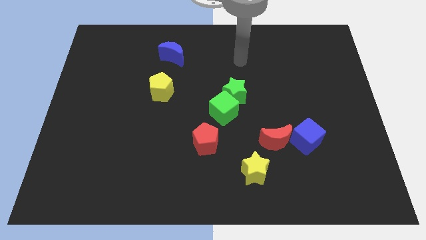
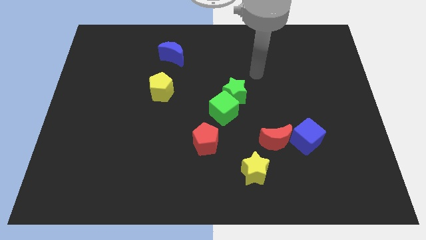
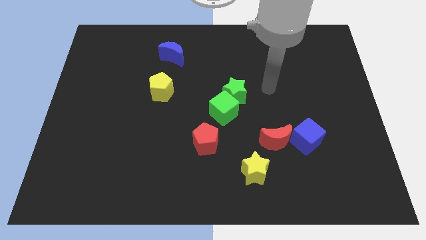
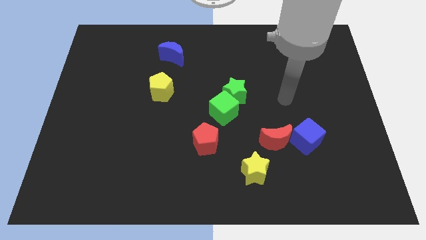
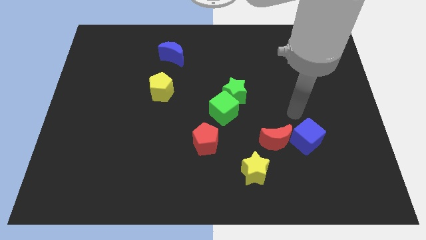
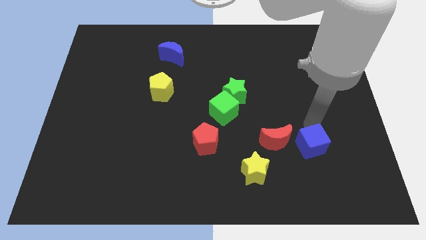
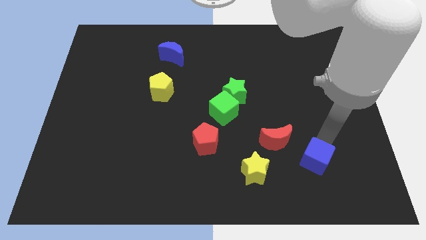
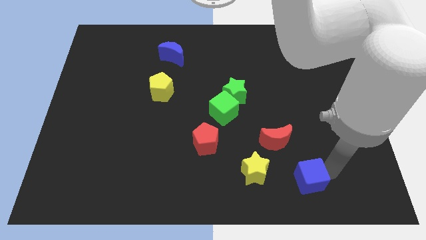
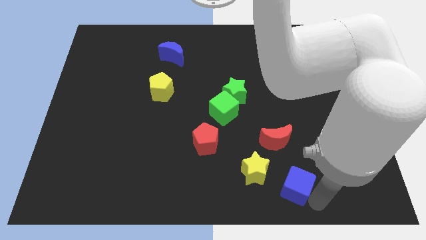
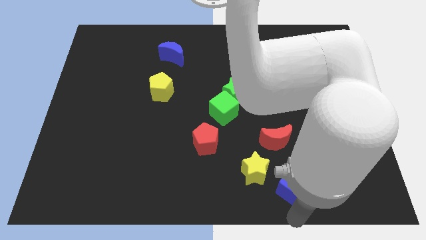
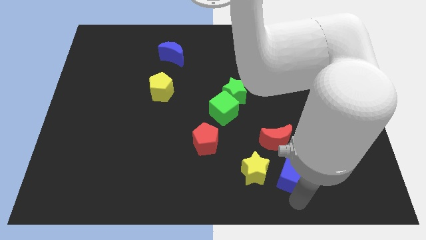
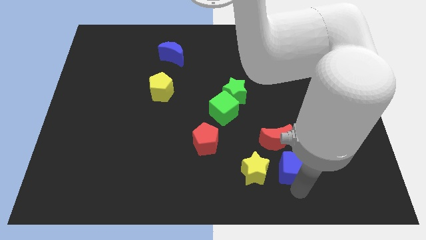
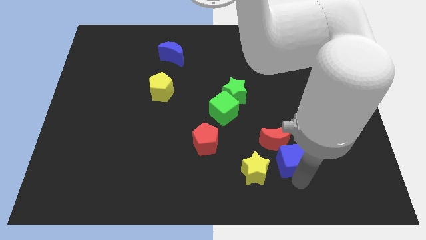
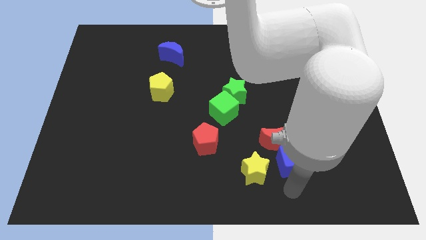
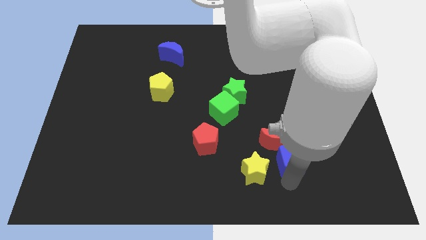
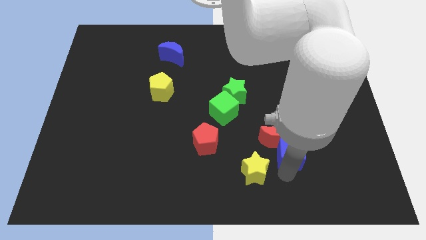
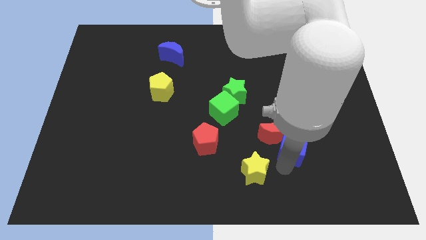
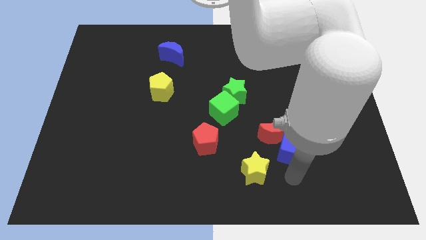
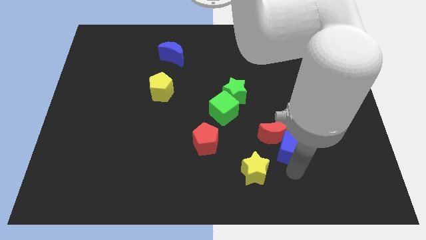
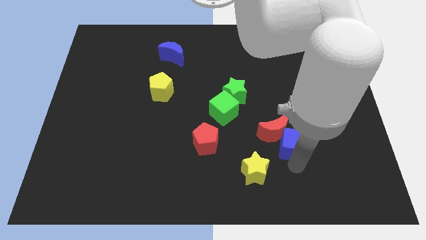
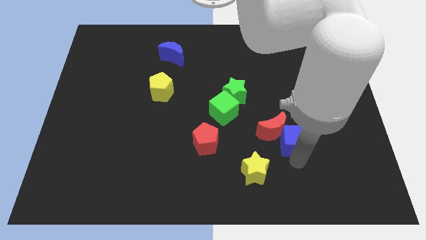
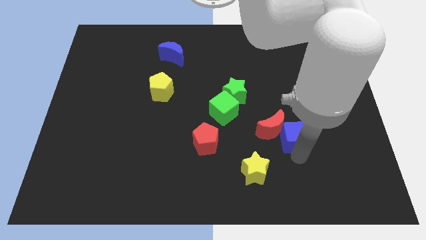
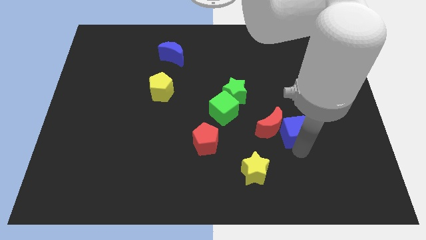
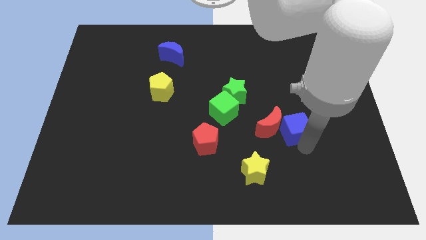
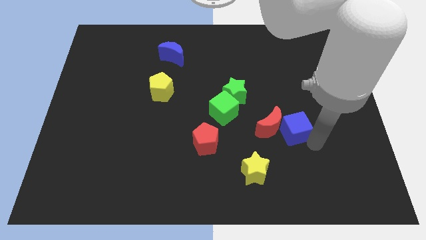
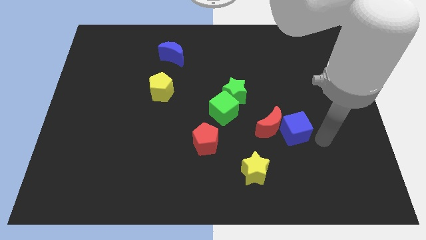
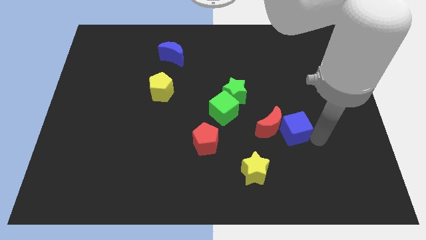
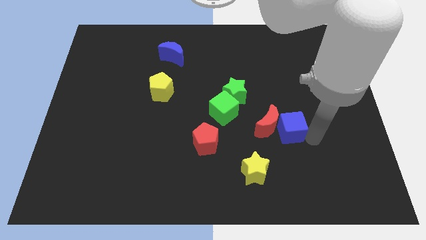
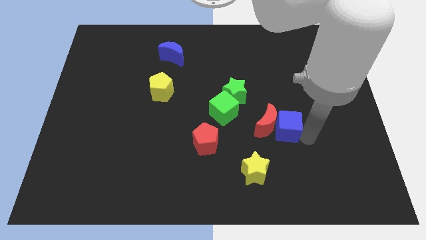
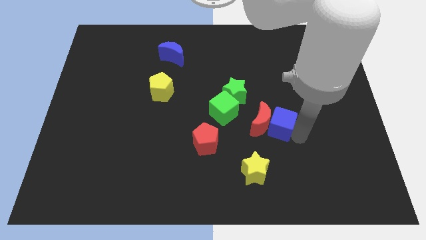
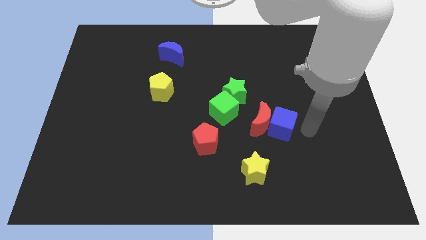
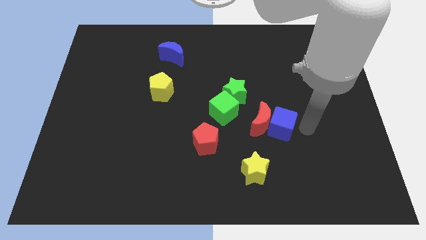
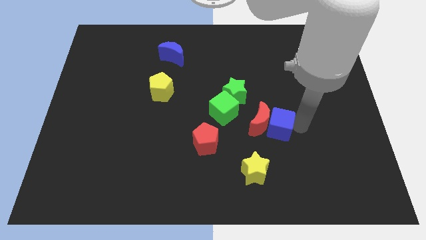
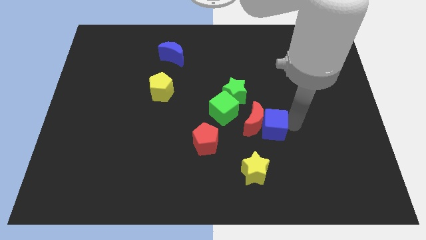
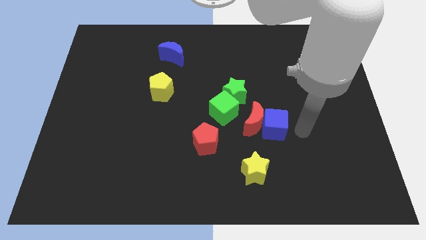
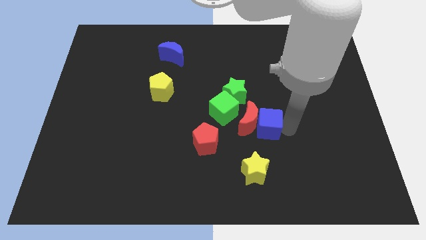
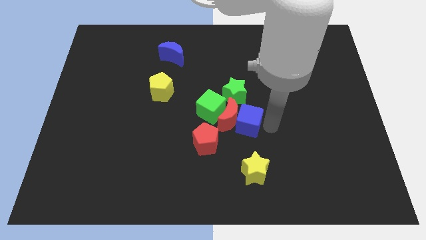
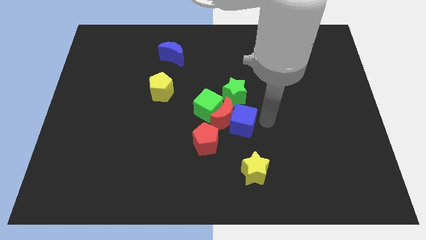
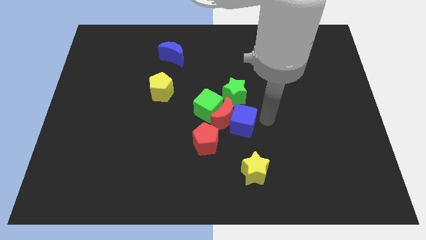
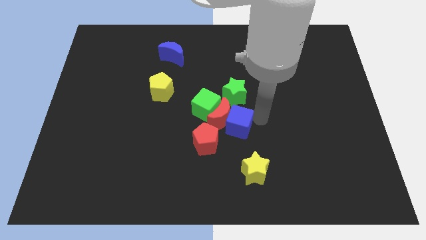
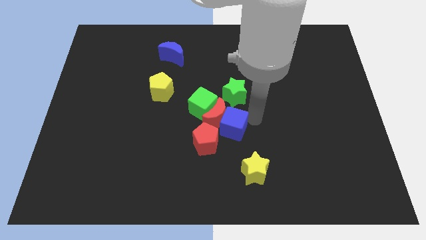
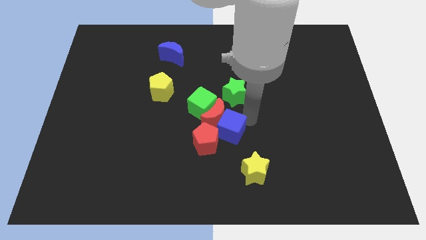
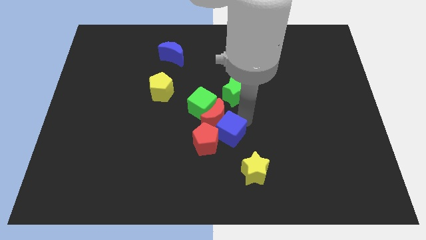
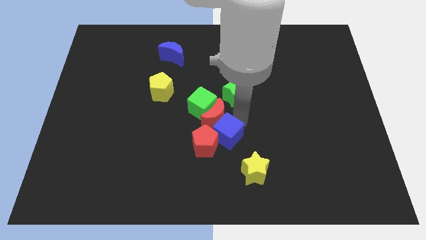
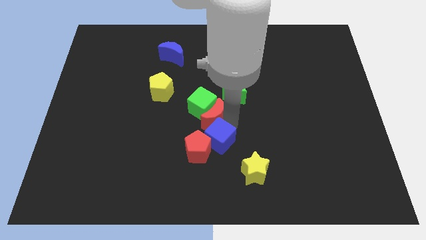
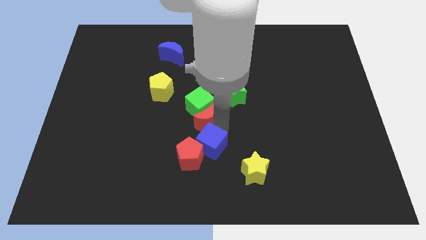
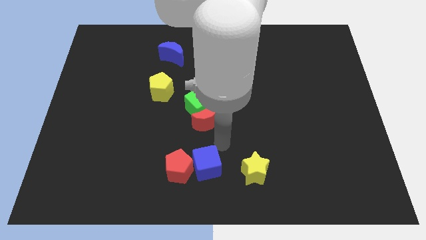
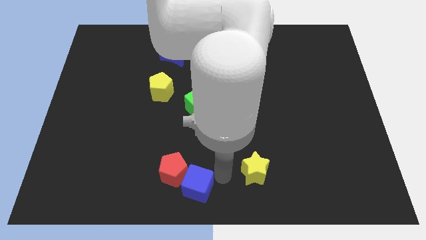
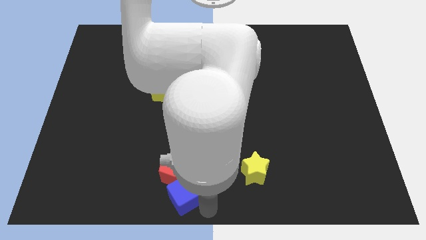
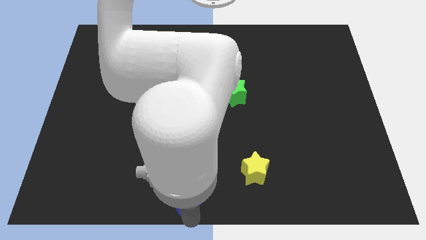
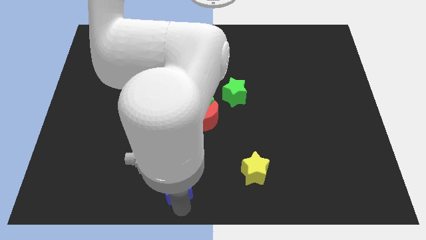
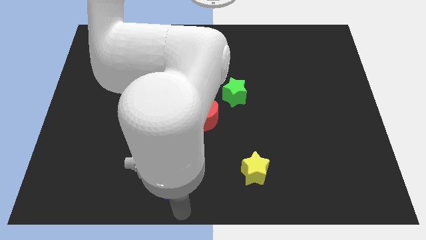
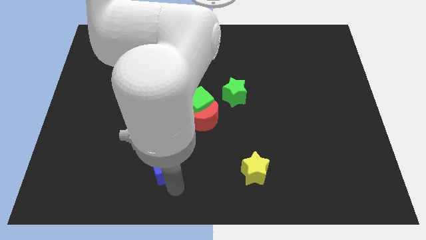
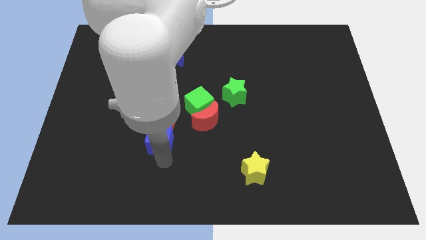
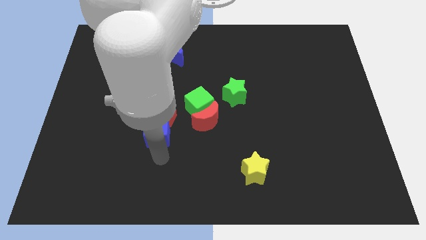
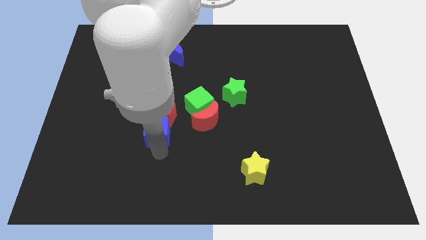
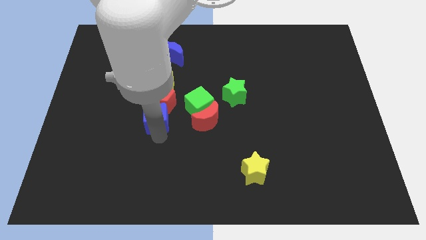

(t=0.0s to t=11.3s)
push the blue cube left of the green cube
